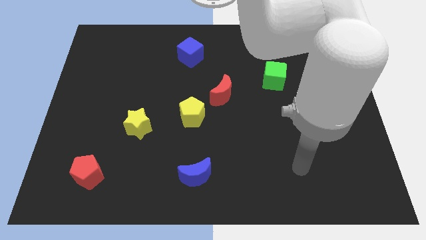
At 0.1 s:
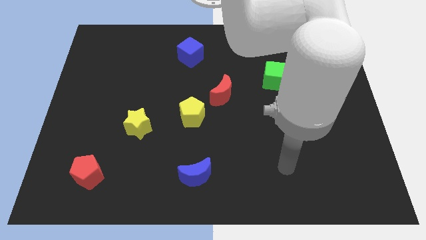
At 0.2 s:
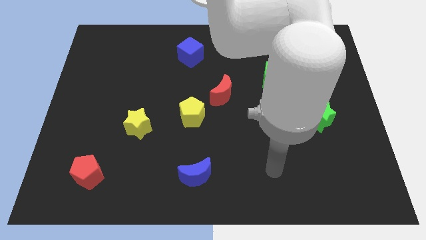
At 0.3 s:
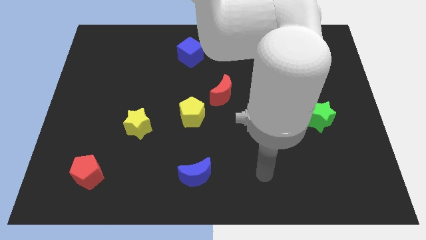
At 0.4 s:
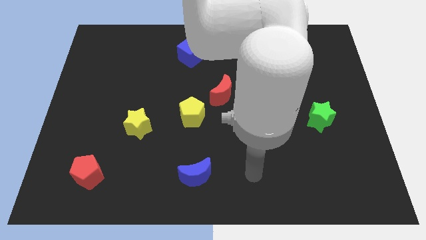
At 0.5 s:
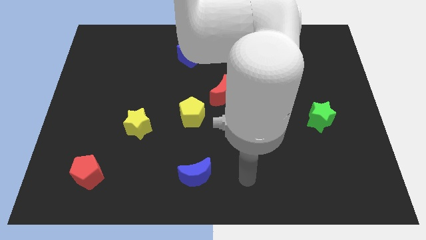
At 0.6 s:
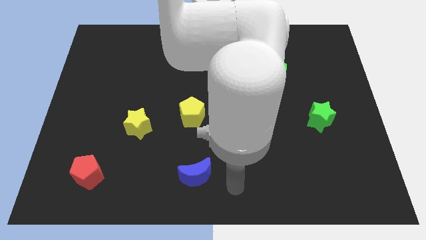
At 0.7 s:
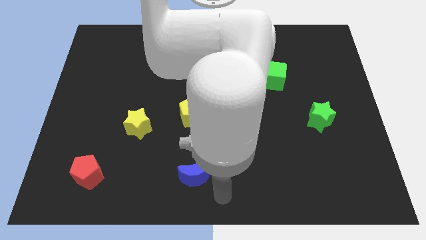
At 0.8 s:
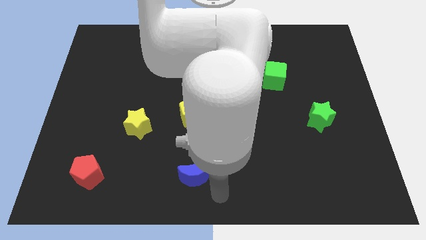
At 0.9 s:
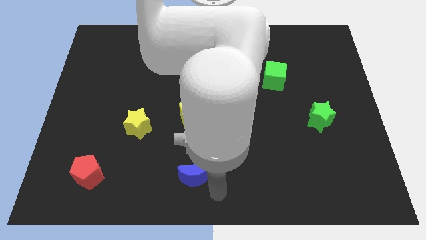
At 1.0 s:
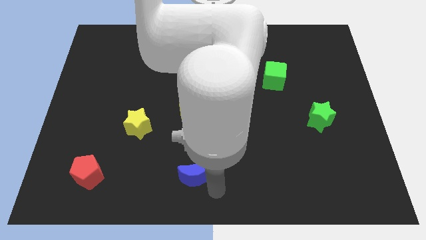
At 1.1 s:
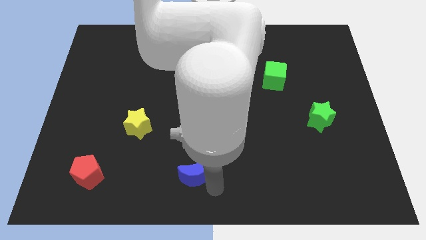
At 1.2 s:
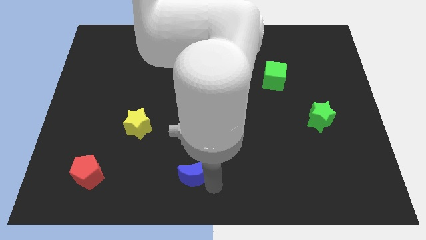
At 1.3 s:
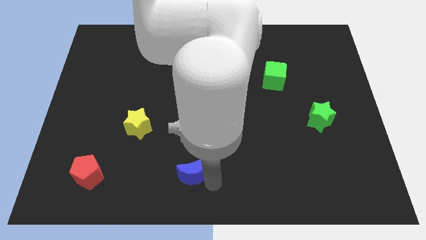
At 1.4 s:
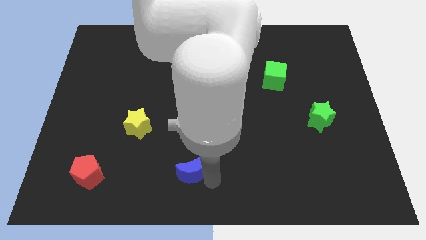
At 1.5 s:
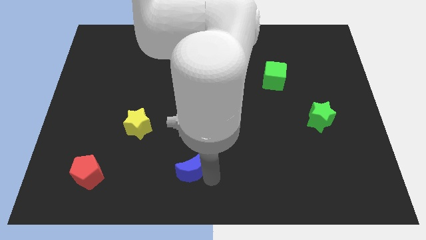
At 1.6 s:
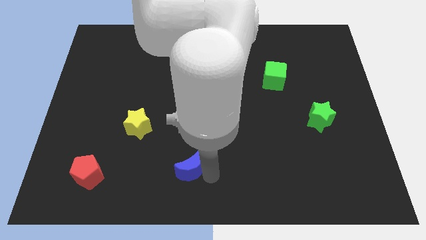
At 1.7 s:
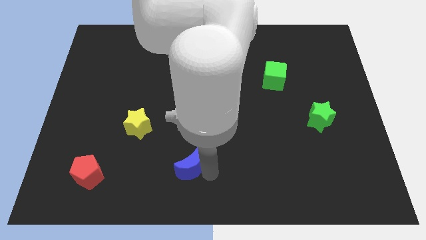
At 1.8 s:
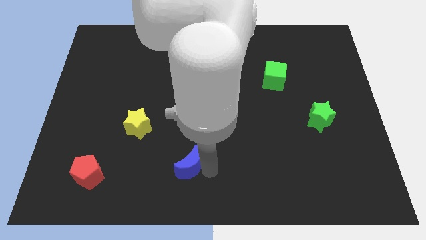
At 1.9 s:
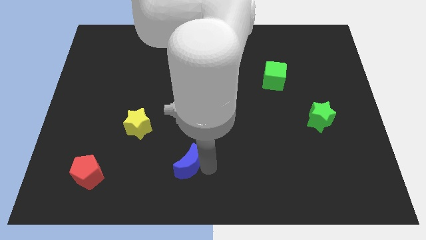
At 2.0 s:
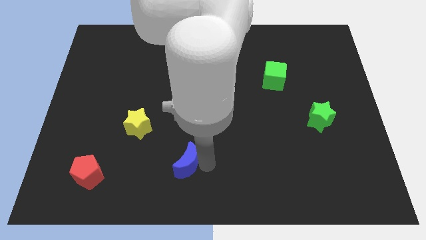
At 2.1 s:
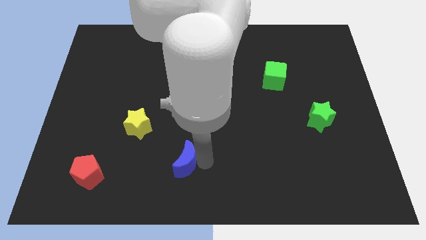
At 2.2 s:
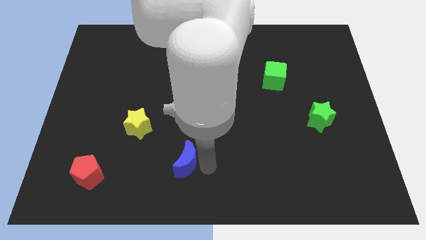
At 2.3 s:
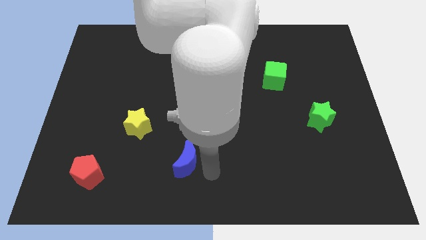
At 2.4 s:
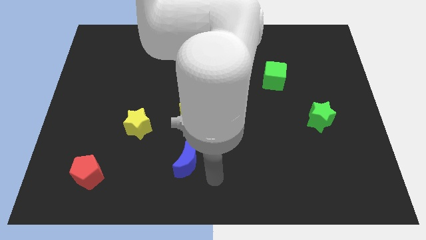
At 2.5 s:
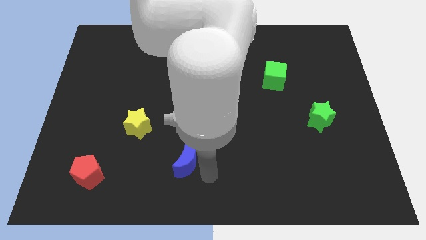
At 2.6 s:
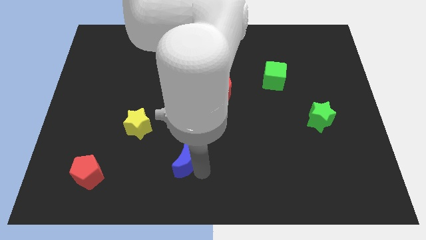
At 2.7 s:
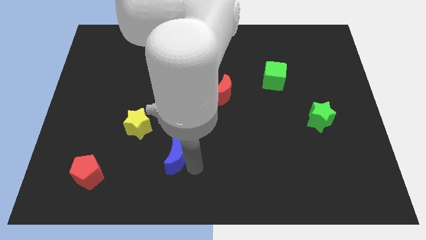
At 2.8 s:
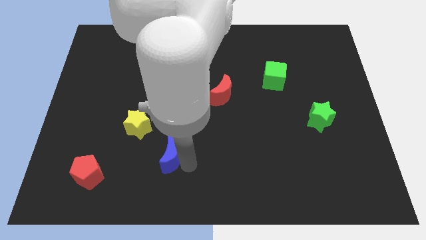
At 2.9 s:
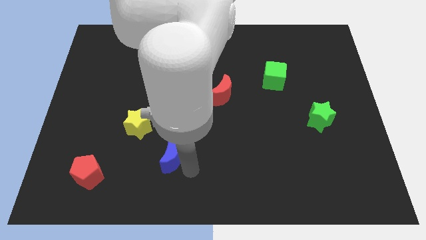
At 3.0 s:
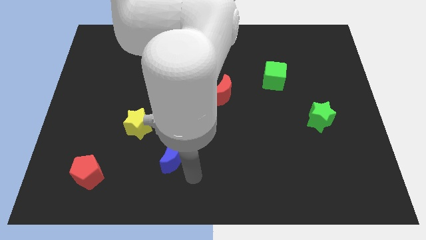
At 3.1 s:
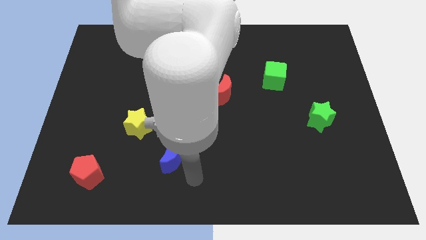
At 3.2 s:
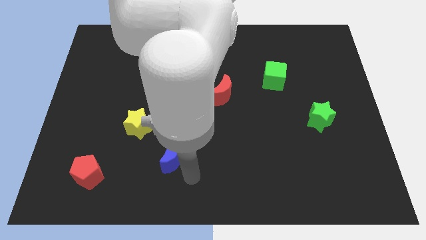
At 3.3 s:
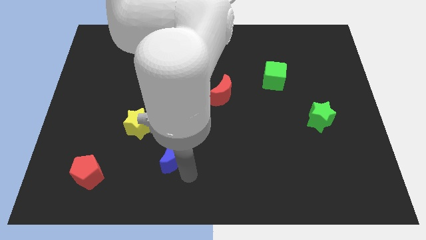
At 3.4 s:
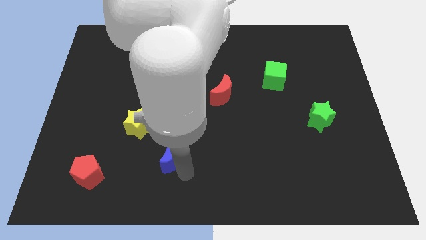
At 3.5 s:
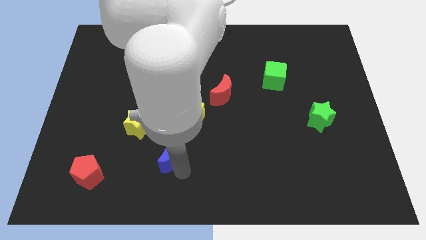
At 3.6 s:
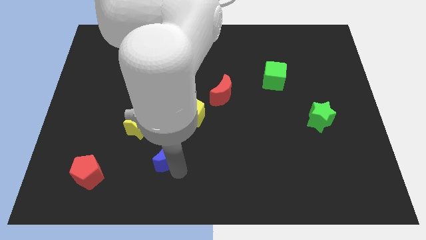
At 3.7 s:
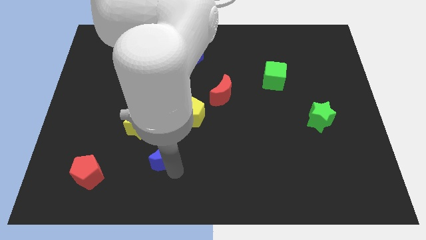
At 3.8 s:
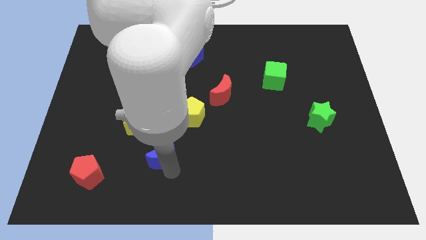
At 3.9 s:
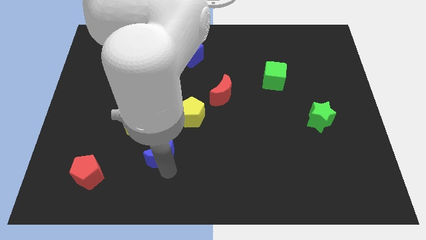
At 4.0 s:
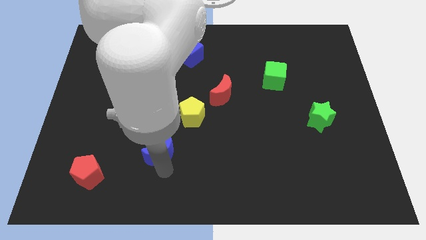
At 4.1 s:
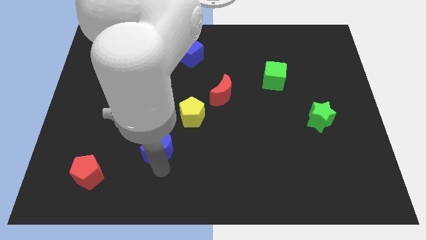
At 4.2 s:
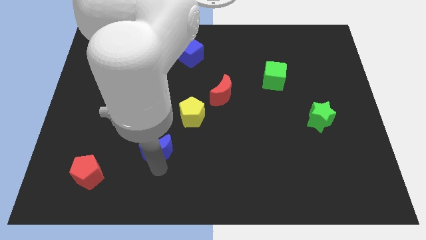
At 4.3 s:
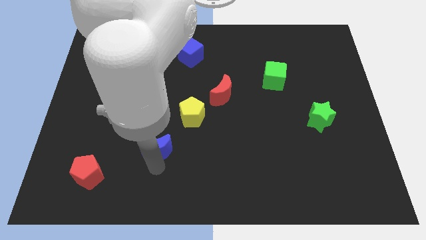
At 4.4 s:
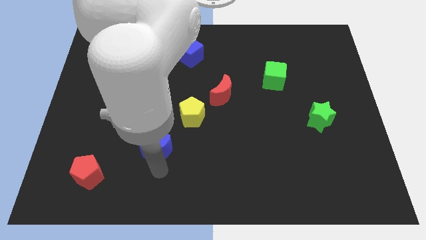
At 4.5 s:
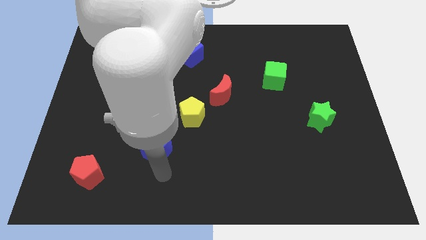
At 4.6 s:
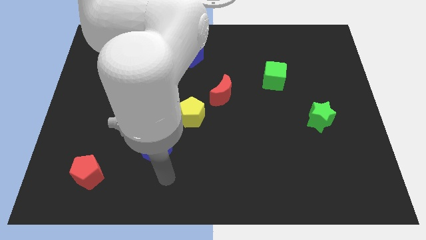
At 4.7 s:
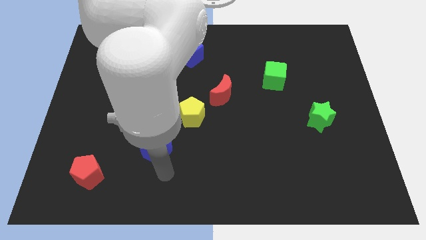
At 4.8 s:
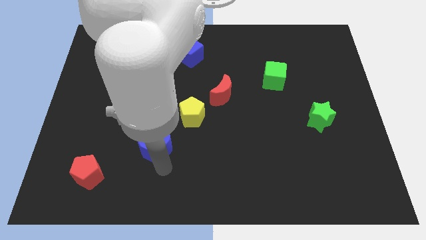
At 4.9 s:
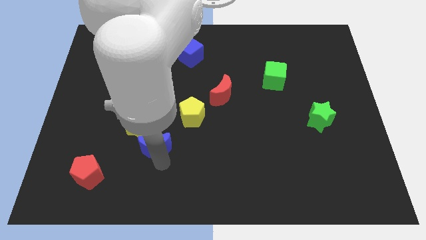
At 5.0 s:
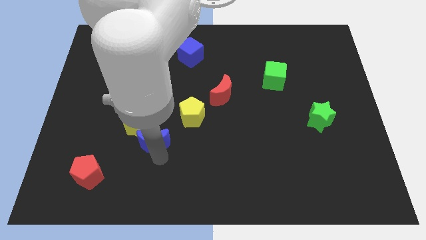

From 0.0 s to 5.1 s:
put the blue moon next to the yellow star

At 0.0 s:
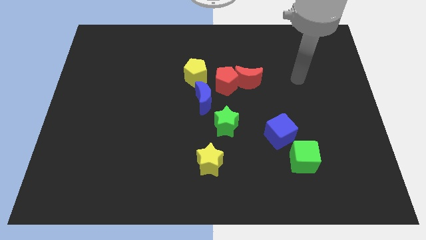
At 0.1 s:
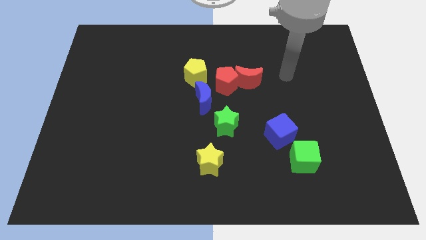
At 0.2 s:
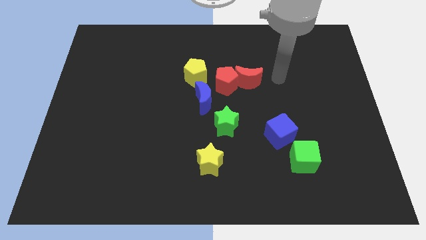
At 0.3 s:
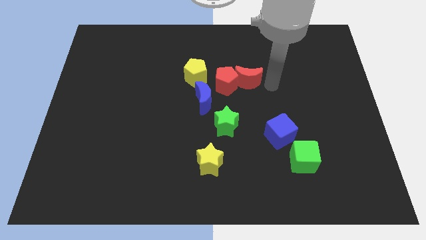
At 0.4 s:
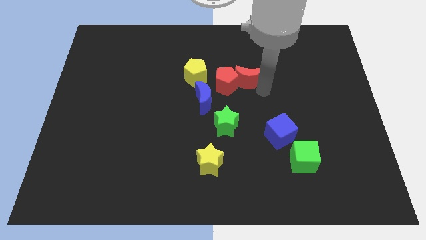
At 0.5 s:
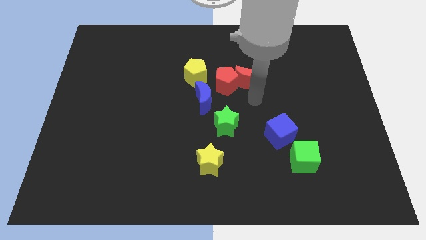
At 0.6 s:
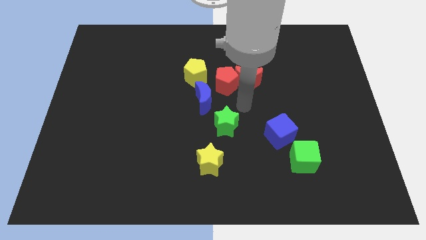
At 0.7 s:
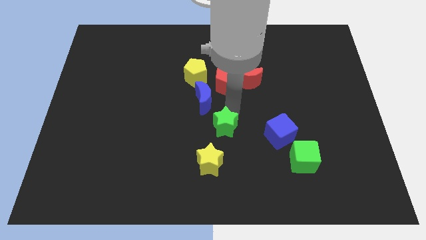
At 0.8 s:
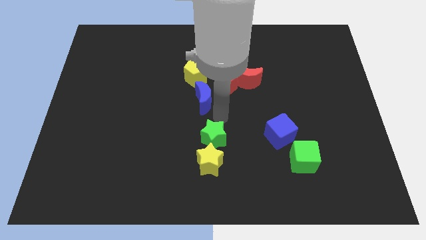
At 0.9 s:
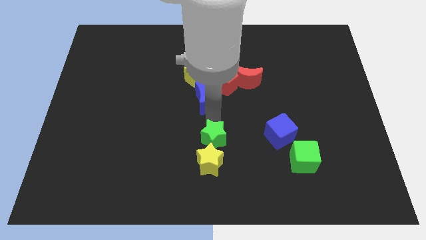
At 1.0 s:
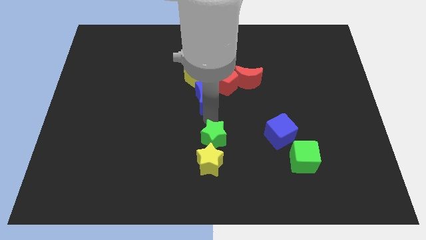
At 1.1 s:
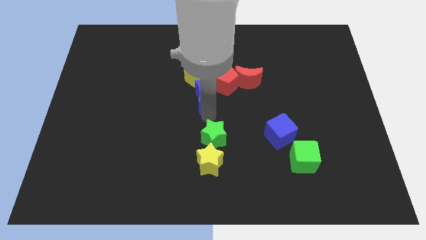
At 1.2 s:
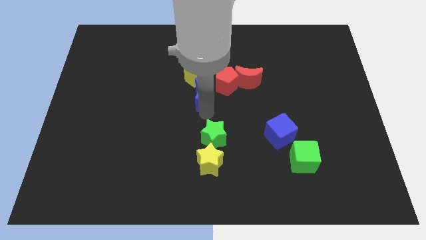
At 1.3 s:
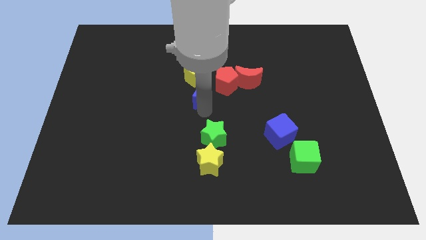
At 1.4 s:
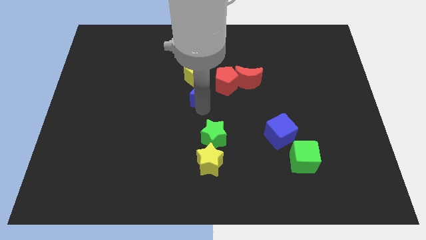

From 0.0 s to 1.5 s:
move the blue moon close to the yellow pentagon

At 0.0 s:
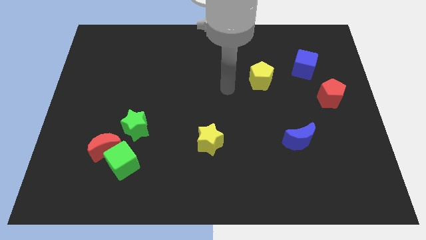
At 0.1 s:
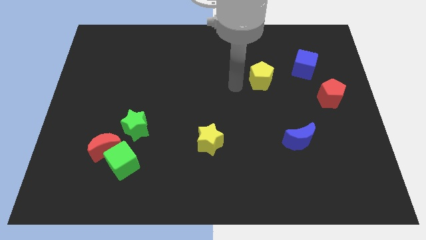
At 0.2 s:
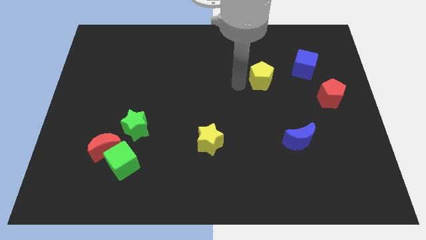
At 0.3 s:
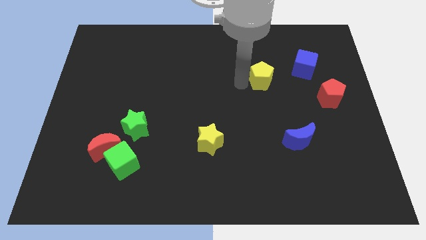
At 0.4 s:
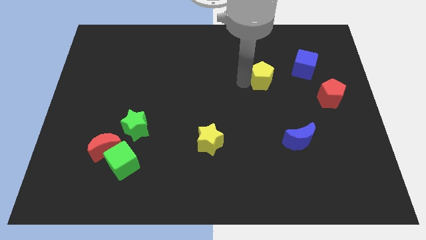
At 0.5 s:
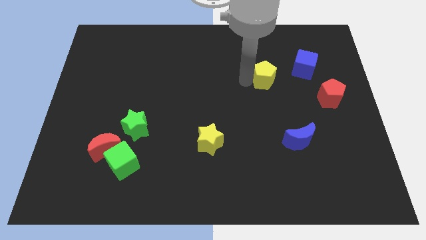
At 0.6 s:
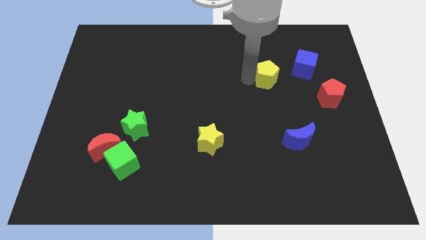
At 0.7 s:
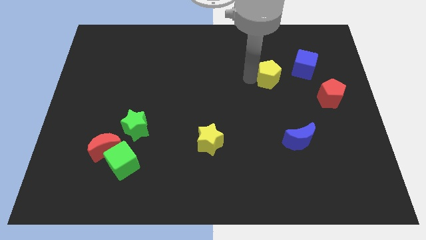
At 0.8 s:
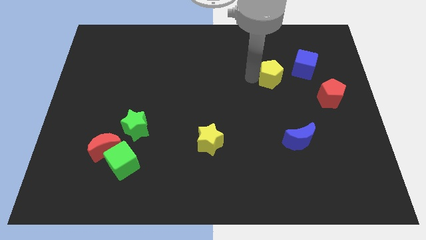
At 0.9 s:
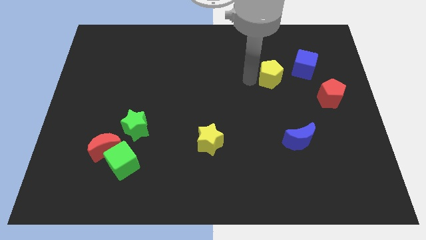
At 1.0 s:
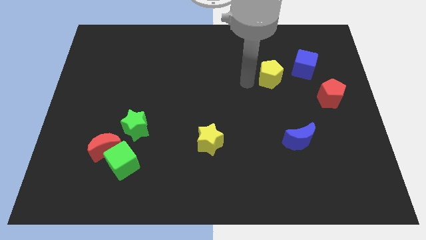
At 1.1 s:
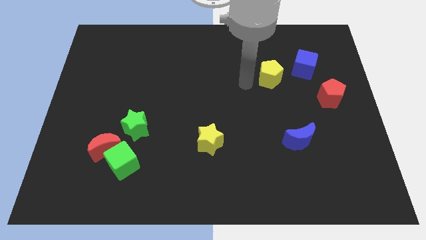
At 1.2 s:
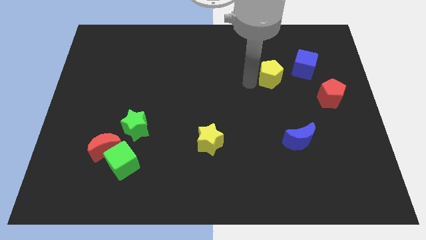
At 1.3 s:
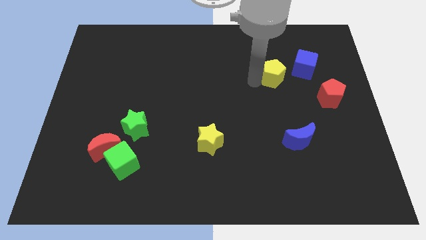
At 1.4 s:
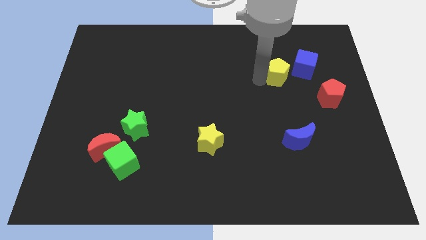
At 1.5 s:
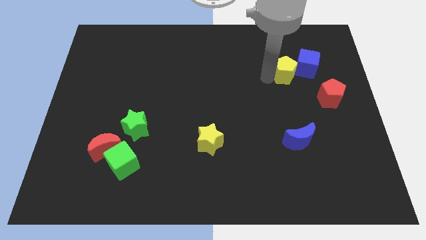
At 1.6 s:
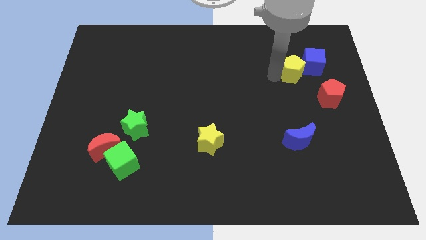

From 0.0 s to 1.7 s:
put the yellow pentagon to the blue cube
